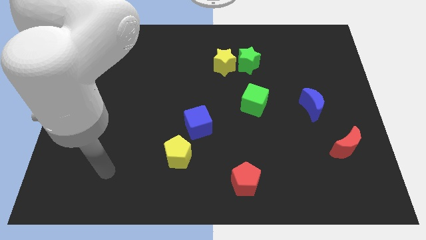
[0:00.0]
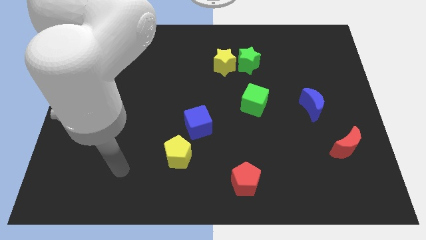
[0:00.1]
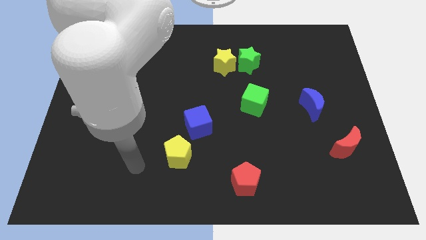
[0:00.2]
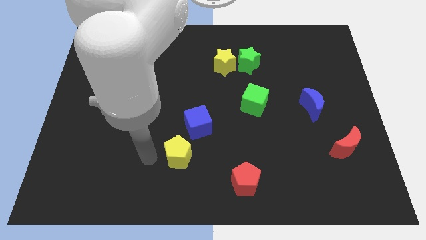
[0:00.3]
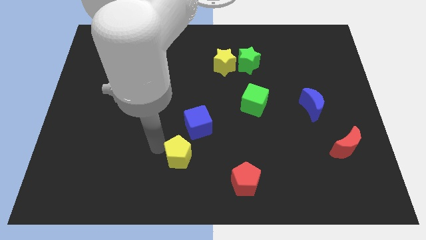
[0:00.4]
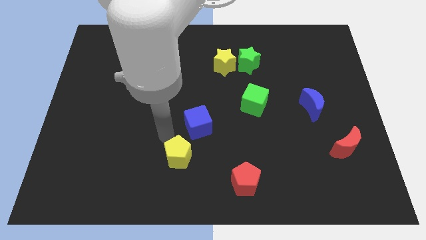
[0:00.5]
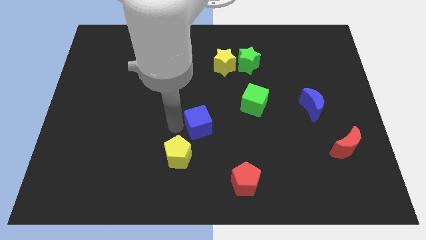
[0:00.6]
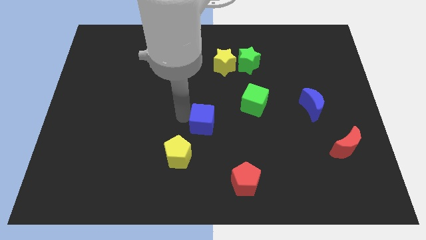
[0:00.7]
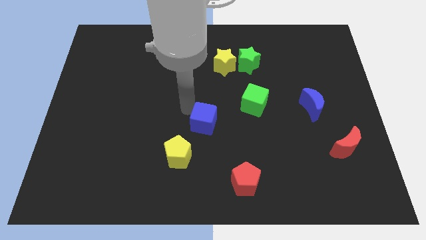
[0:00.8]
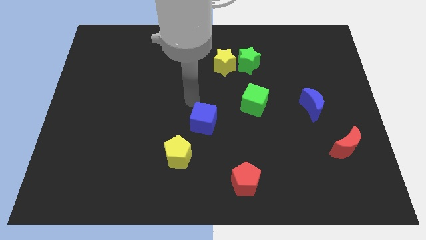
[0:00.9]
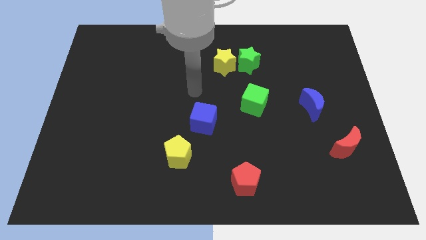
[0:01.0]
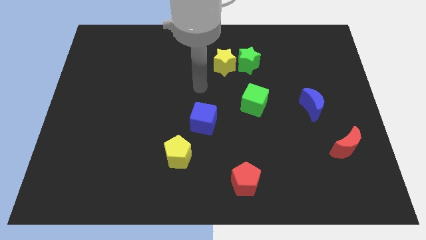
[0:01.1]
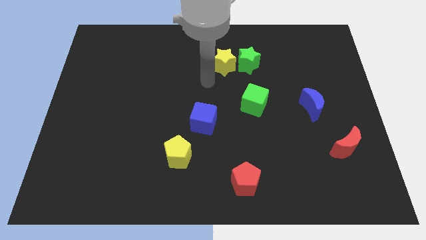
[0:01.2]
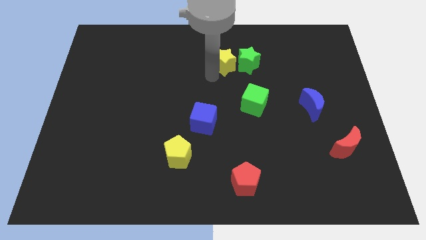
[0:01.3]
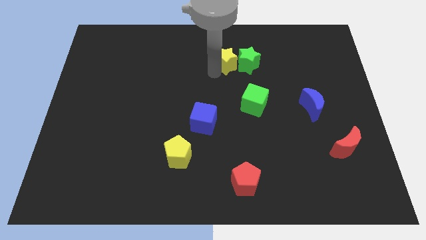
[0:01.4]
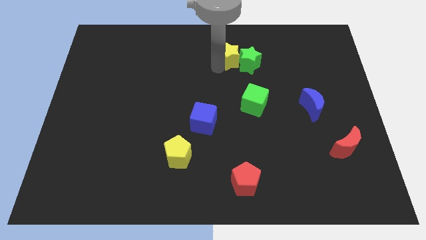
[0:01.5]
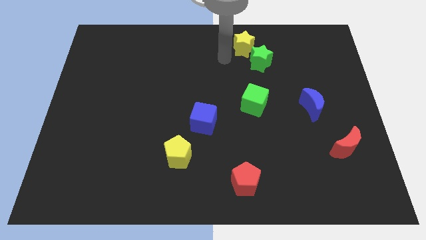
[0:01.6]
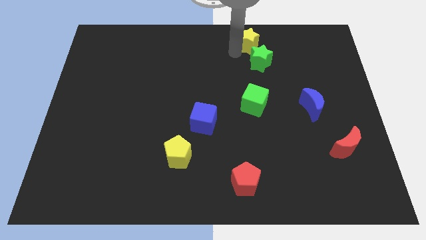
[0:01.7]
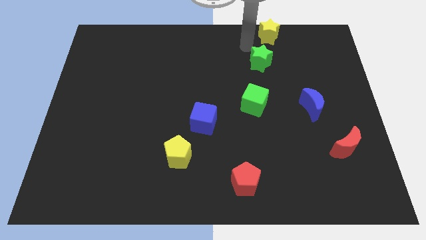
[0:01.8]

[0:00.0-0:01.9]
move the green star away from the yellow star

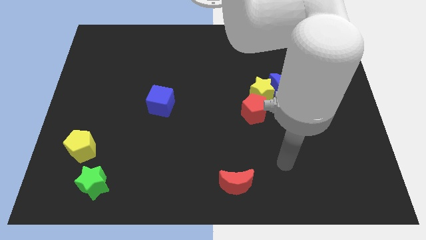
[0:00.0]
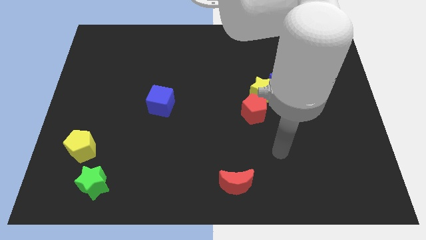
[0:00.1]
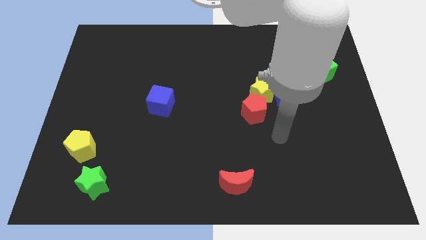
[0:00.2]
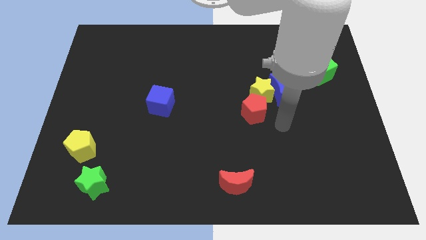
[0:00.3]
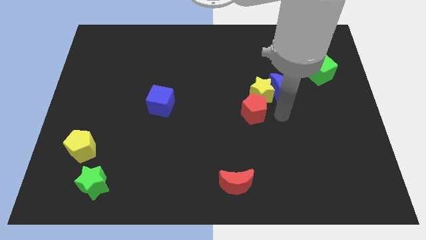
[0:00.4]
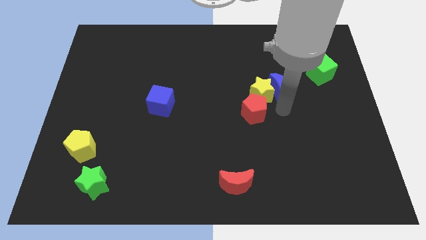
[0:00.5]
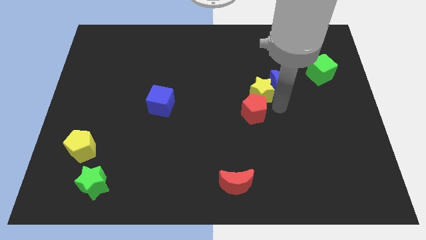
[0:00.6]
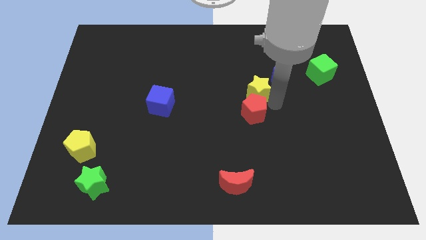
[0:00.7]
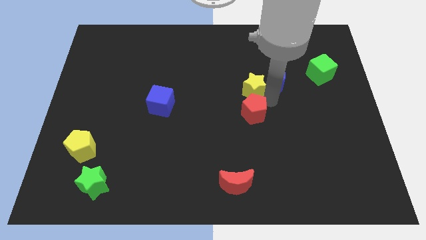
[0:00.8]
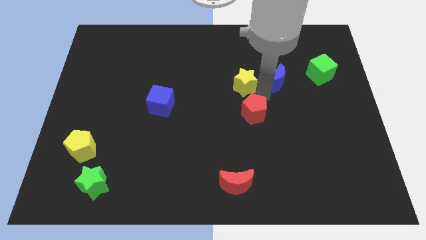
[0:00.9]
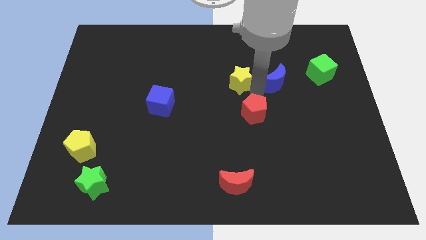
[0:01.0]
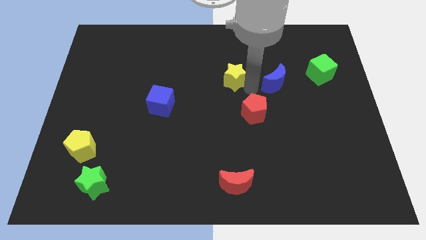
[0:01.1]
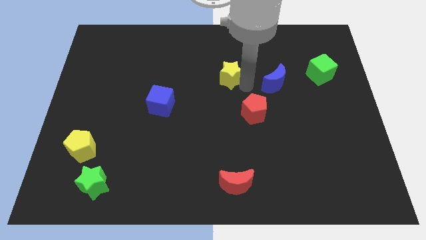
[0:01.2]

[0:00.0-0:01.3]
move the yellow star away from the blue moon and red pentagon

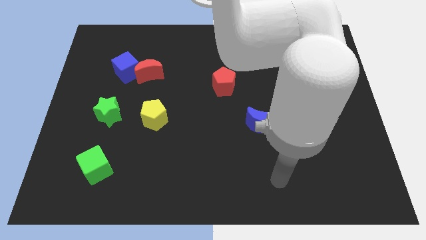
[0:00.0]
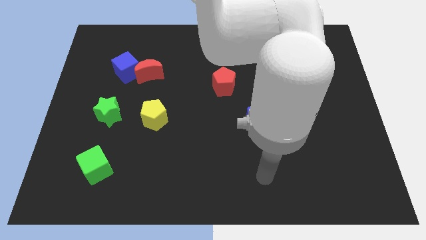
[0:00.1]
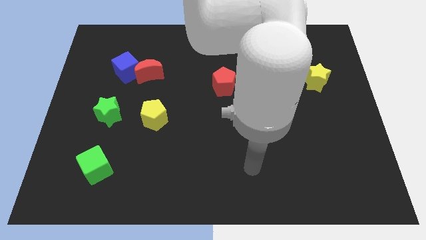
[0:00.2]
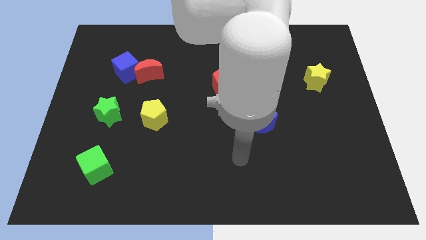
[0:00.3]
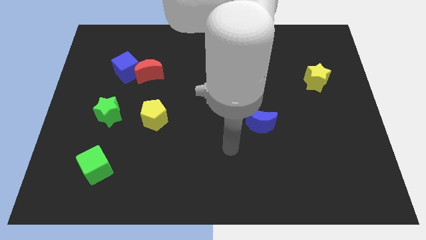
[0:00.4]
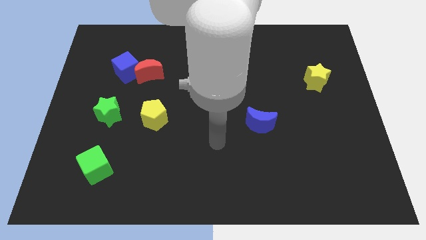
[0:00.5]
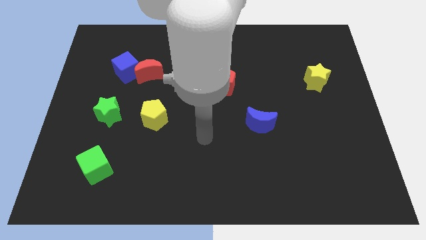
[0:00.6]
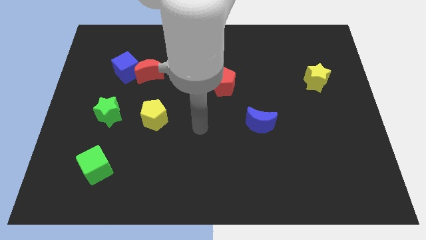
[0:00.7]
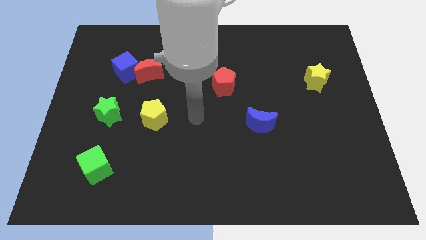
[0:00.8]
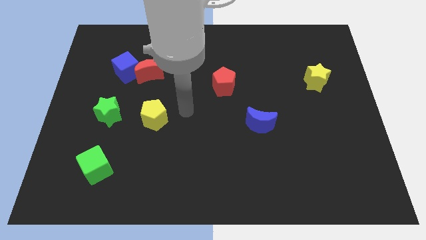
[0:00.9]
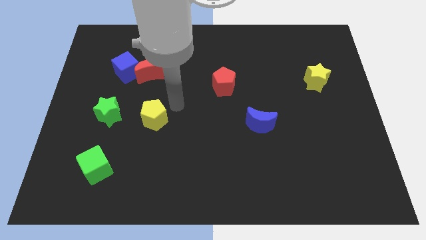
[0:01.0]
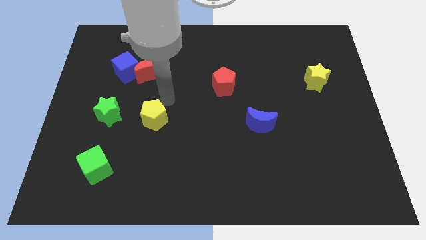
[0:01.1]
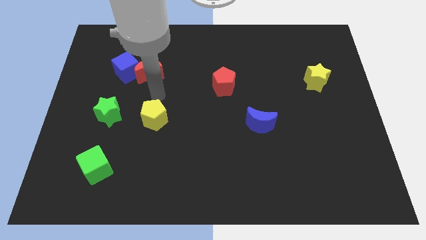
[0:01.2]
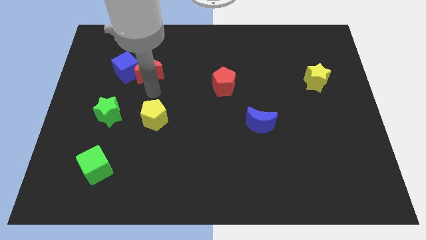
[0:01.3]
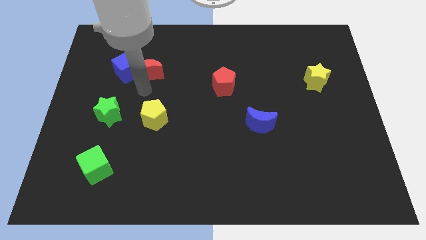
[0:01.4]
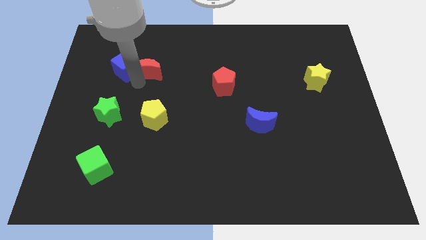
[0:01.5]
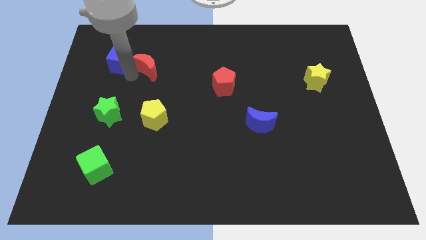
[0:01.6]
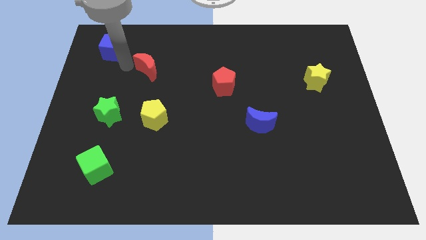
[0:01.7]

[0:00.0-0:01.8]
move the red moon away from the blue cube

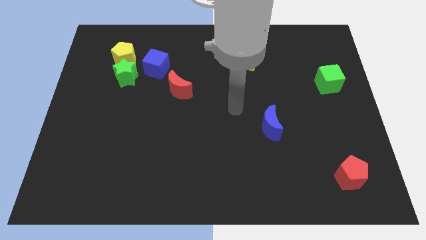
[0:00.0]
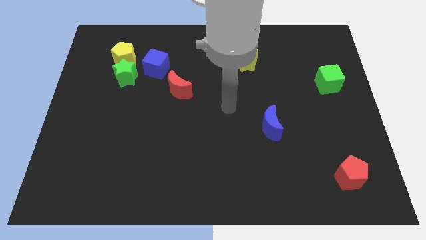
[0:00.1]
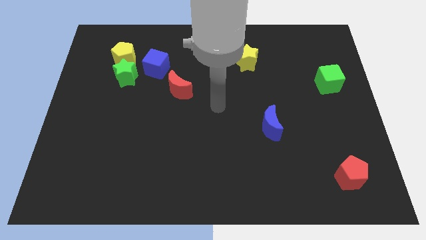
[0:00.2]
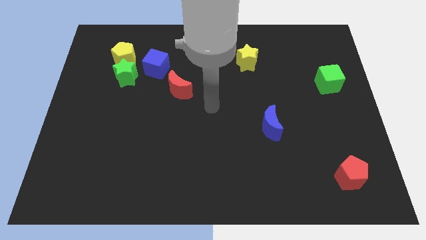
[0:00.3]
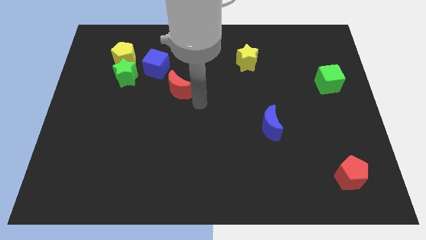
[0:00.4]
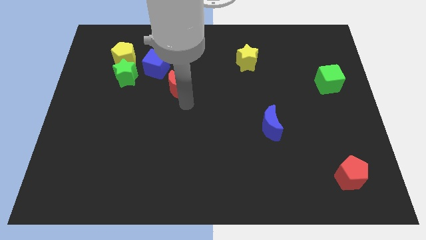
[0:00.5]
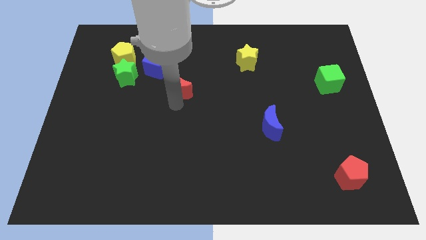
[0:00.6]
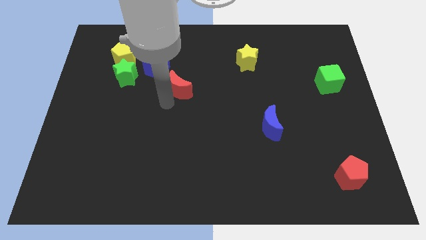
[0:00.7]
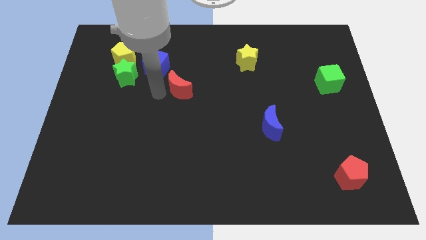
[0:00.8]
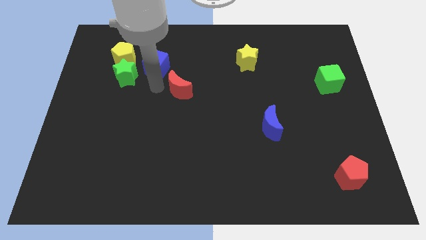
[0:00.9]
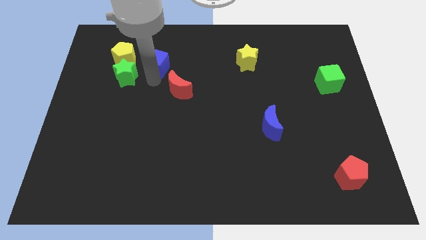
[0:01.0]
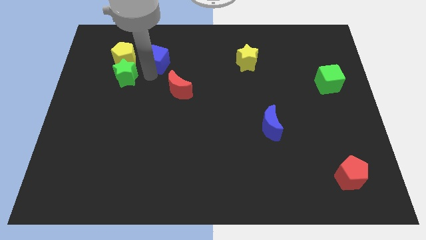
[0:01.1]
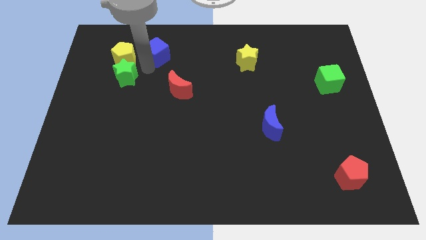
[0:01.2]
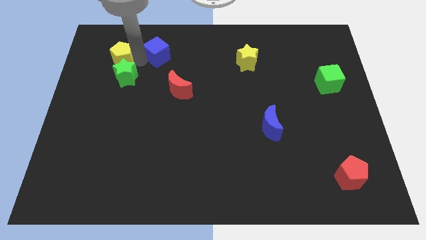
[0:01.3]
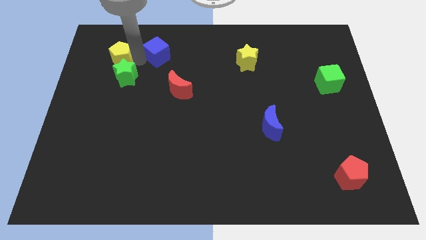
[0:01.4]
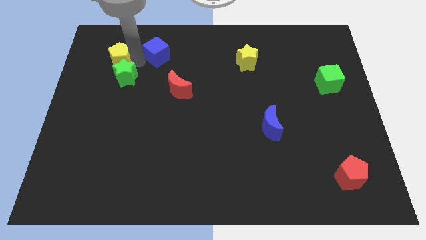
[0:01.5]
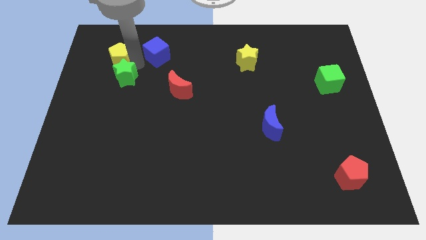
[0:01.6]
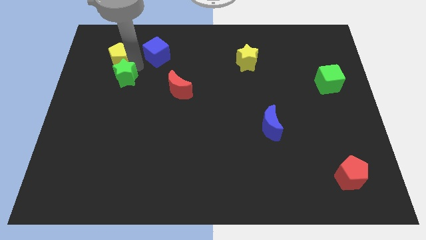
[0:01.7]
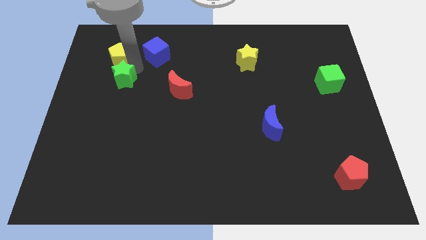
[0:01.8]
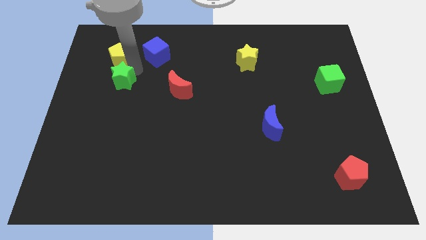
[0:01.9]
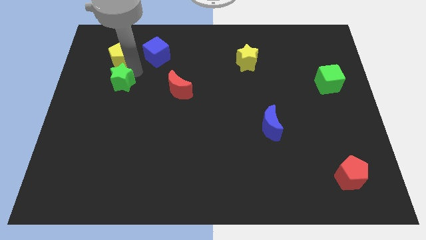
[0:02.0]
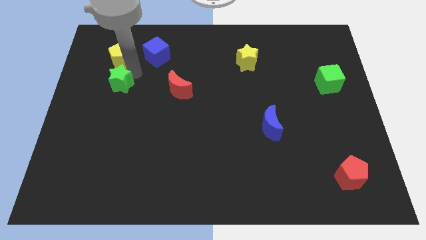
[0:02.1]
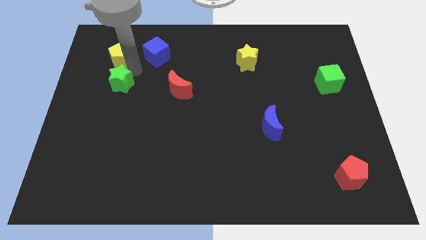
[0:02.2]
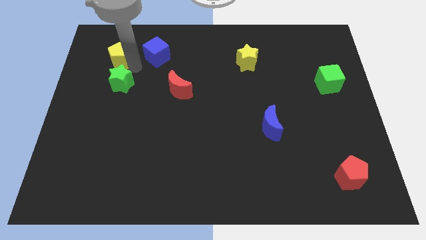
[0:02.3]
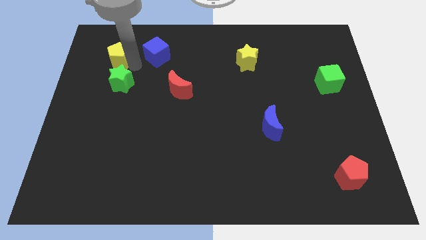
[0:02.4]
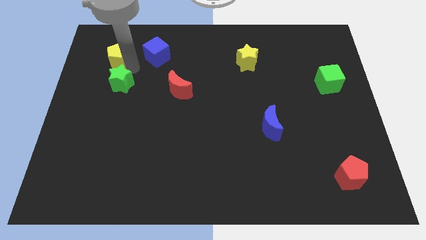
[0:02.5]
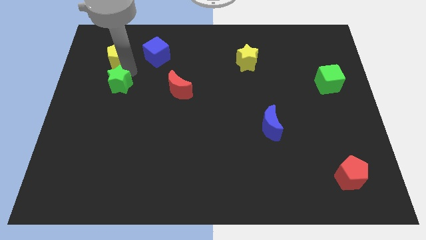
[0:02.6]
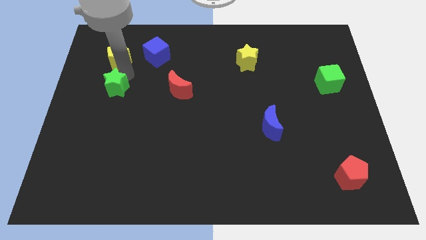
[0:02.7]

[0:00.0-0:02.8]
pull the green star apart from the yellow pentagon and blue cube

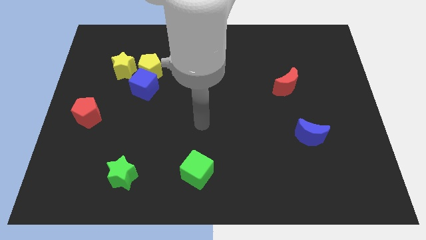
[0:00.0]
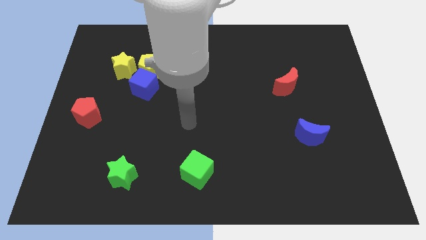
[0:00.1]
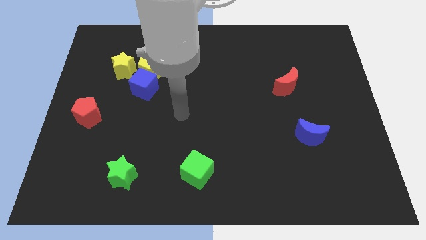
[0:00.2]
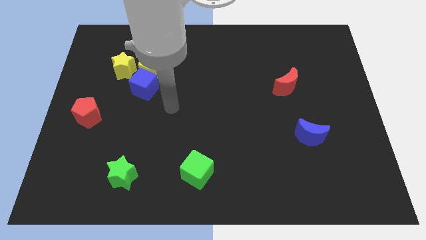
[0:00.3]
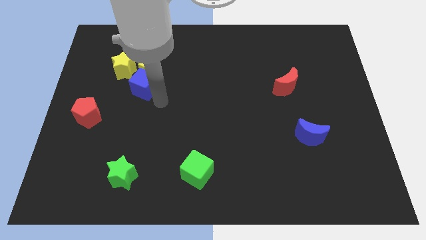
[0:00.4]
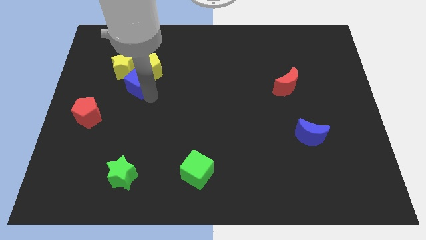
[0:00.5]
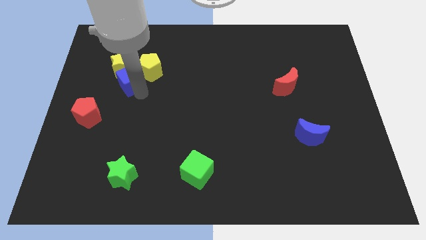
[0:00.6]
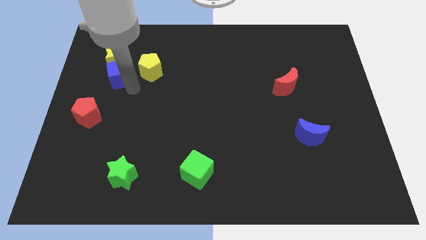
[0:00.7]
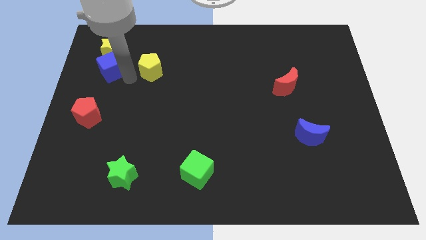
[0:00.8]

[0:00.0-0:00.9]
move the yellow pentagon away from the blue cube and yellow star

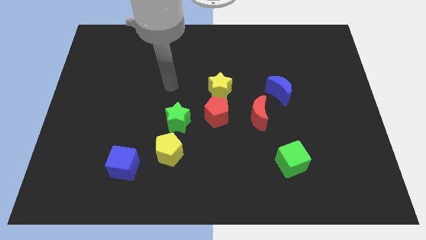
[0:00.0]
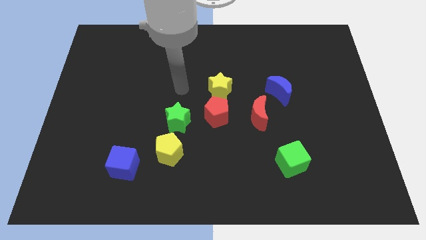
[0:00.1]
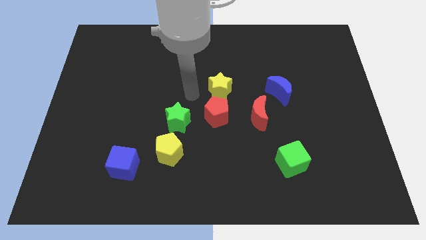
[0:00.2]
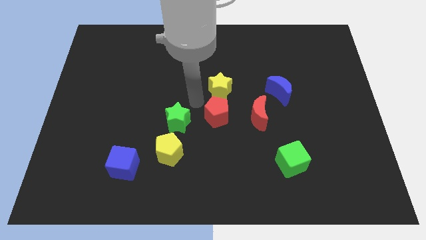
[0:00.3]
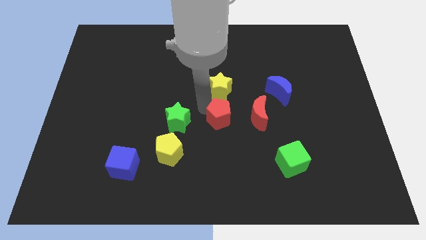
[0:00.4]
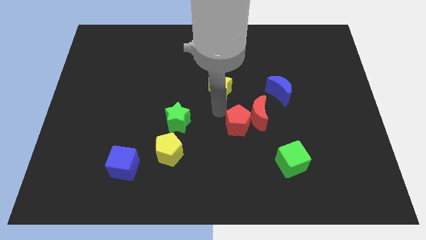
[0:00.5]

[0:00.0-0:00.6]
pull the yellow star apart from the red pentagon
